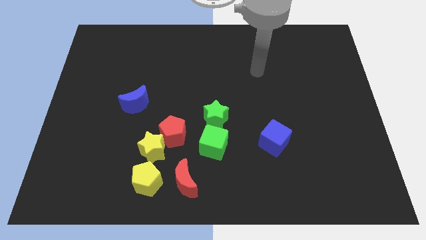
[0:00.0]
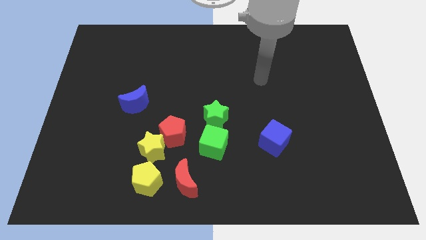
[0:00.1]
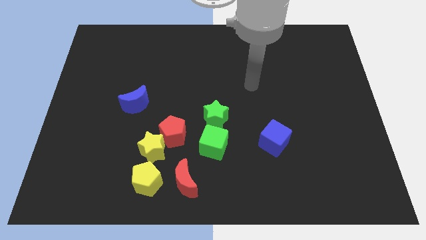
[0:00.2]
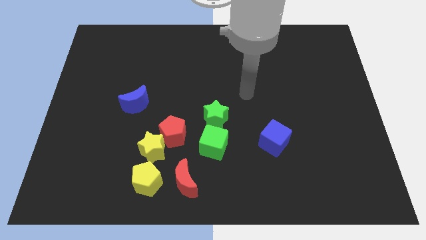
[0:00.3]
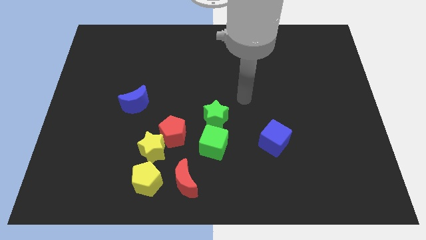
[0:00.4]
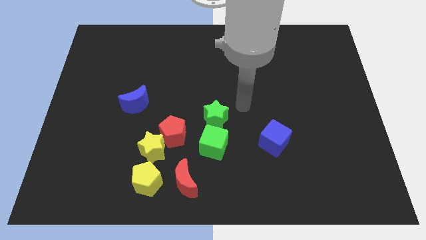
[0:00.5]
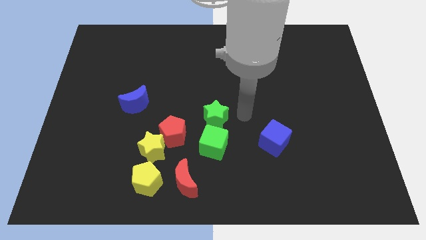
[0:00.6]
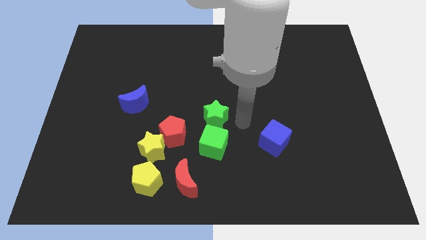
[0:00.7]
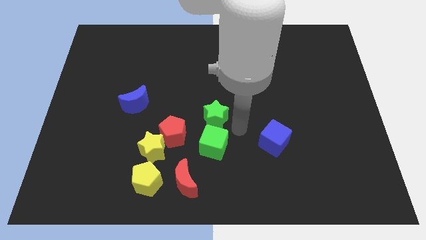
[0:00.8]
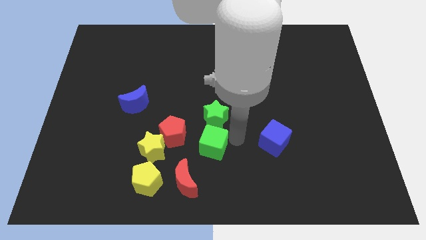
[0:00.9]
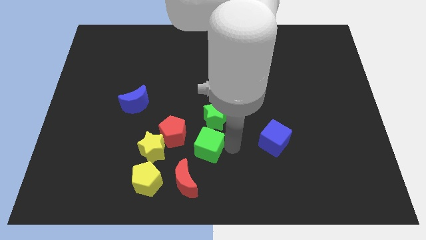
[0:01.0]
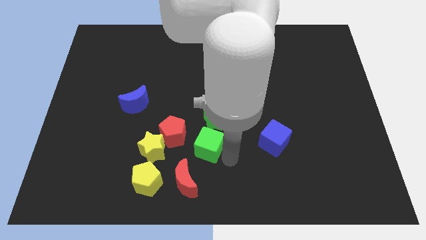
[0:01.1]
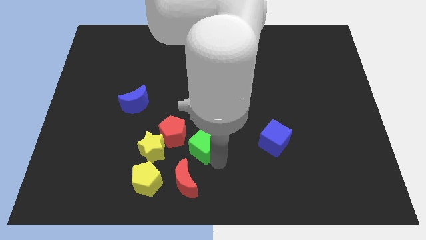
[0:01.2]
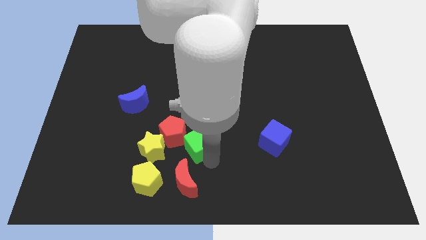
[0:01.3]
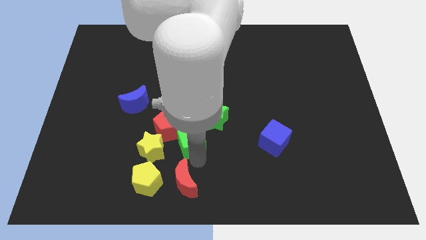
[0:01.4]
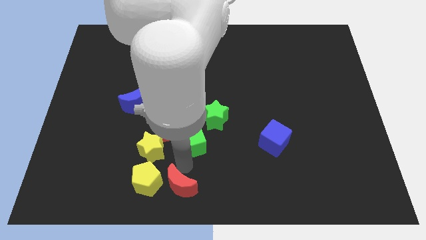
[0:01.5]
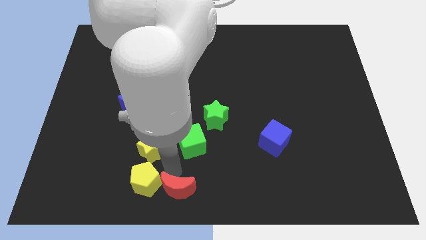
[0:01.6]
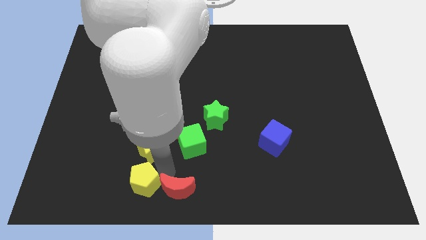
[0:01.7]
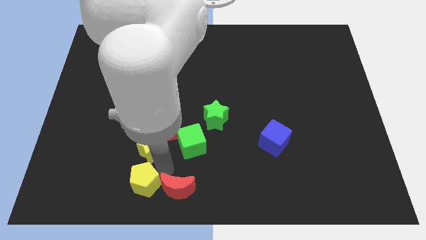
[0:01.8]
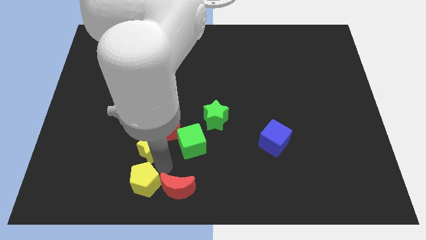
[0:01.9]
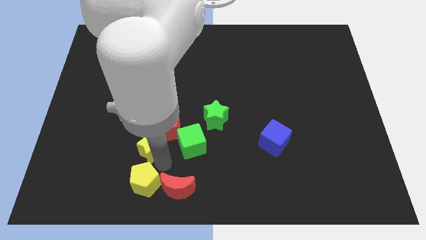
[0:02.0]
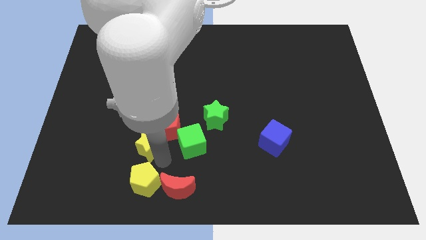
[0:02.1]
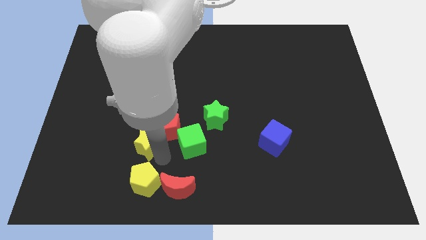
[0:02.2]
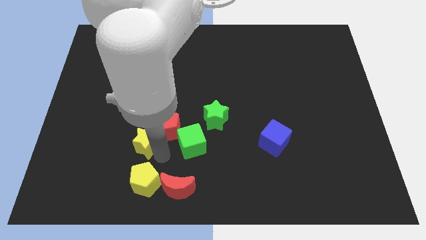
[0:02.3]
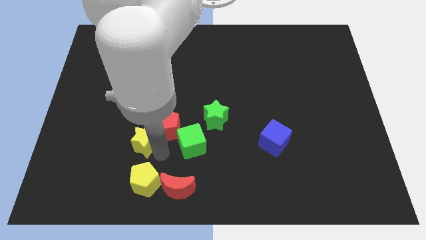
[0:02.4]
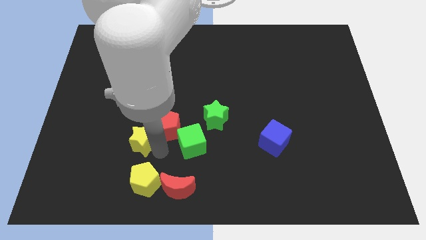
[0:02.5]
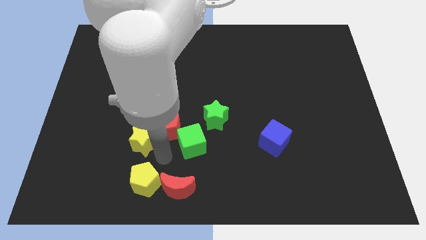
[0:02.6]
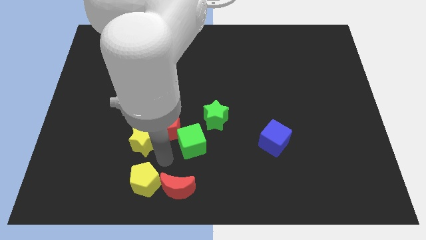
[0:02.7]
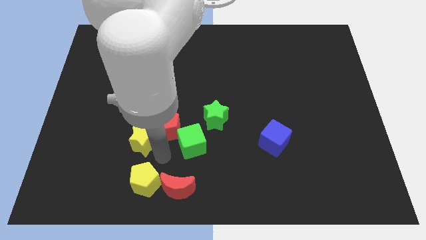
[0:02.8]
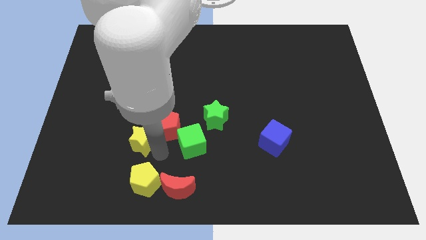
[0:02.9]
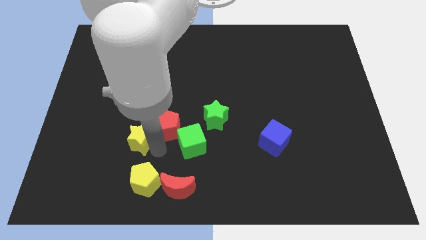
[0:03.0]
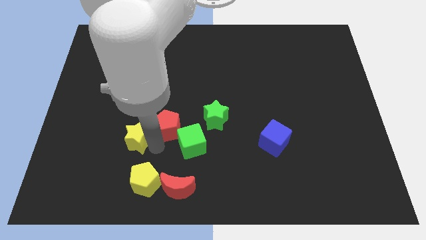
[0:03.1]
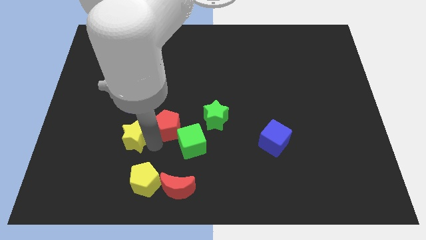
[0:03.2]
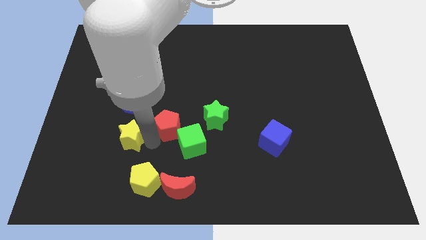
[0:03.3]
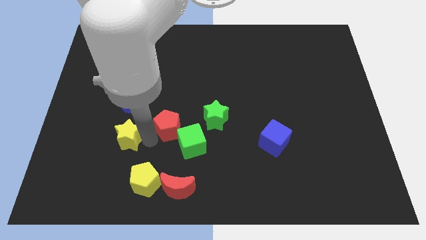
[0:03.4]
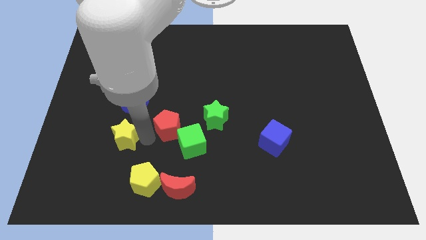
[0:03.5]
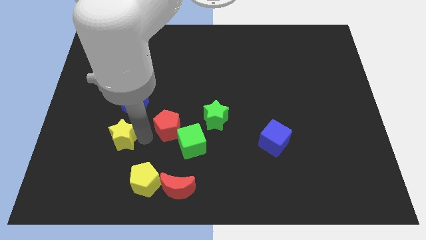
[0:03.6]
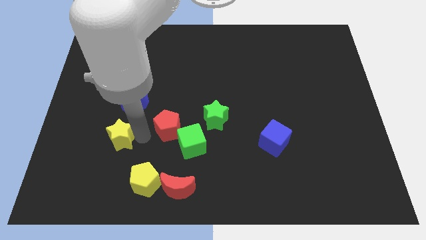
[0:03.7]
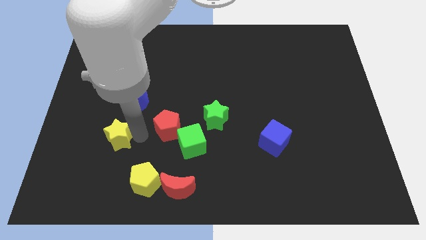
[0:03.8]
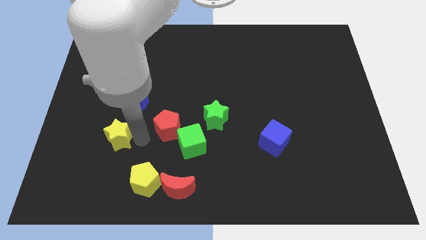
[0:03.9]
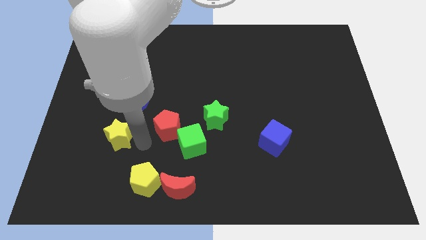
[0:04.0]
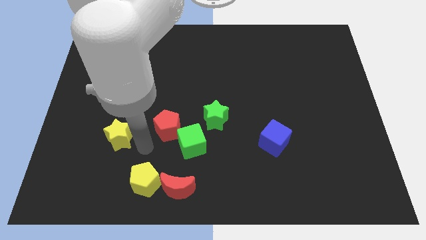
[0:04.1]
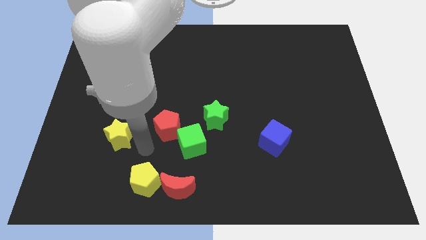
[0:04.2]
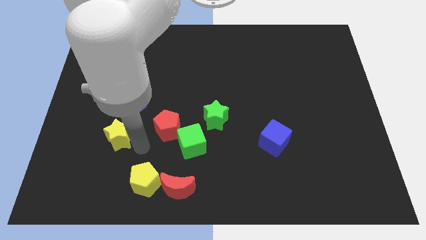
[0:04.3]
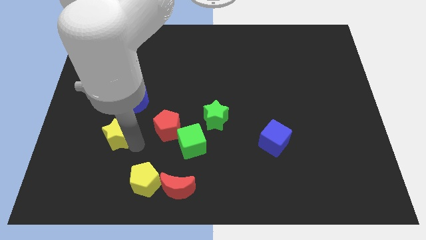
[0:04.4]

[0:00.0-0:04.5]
separate the yellow star from the red pentagon and yellow pentagon

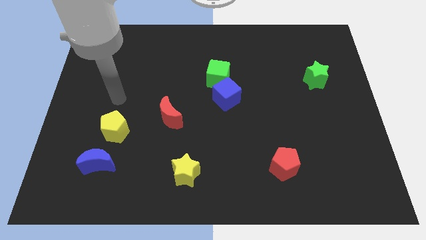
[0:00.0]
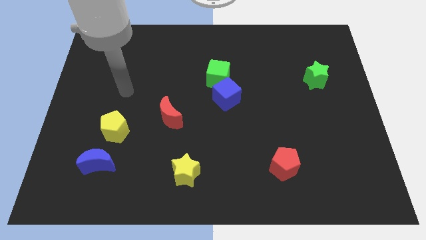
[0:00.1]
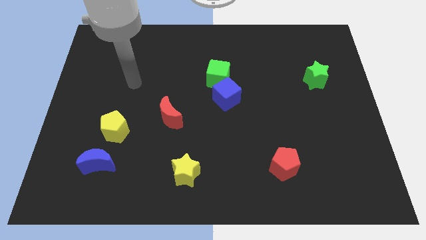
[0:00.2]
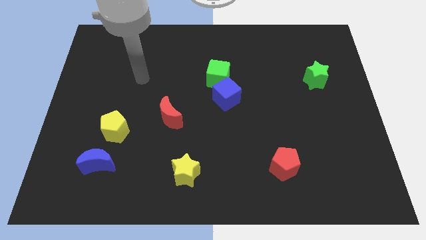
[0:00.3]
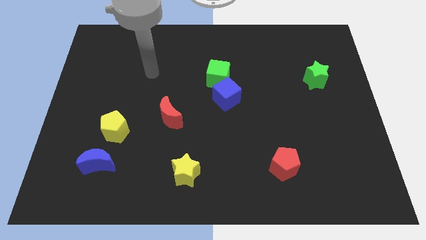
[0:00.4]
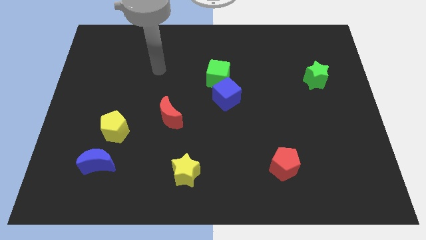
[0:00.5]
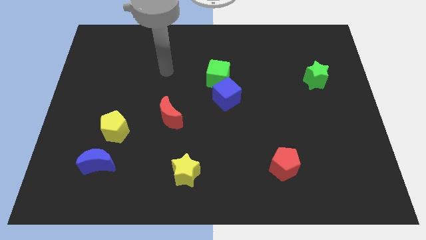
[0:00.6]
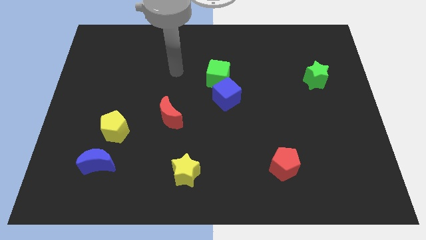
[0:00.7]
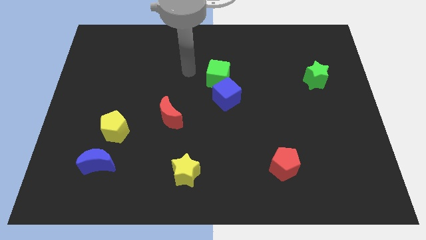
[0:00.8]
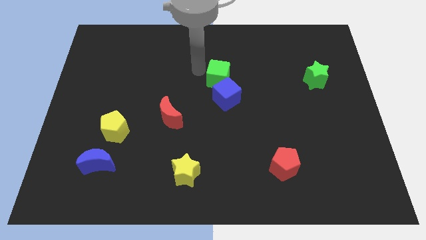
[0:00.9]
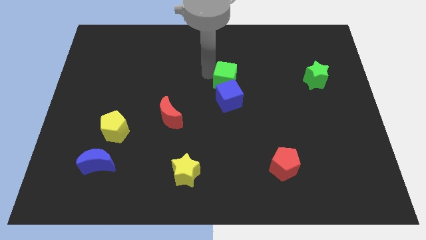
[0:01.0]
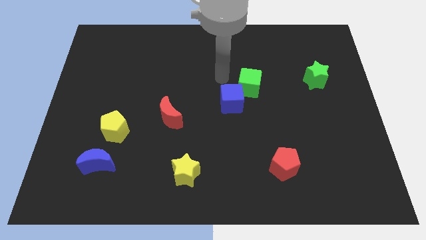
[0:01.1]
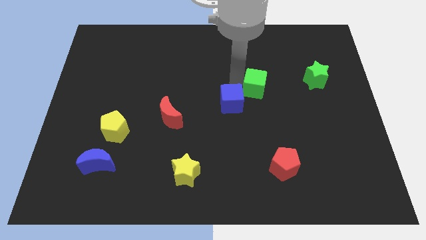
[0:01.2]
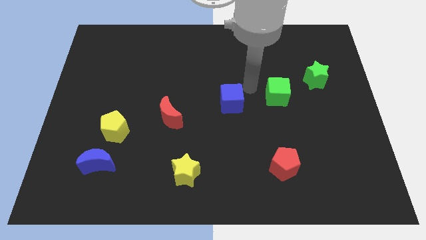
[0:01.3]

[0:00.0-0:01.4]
separate the blue cube from the green cube

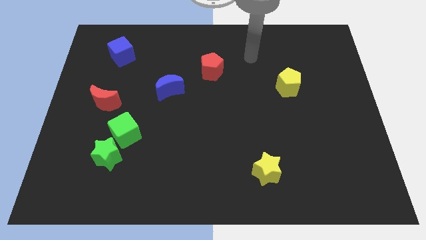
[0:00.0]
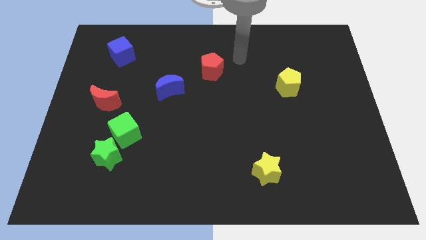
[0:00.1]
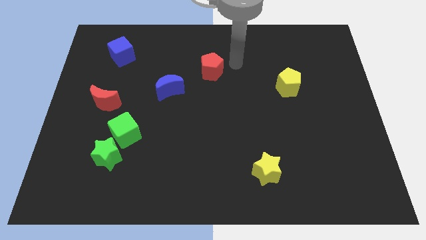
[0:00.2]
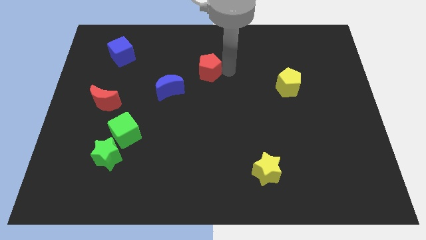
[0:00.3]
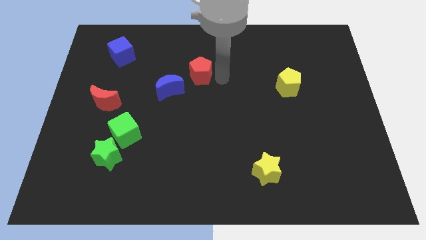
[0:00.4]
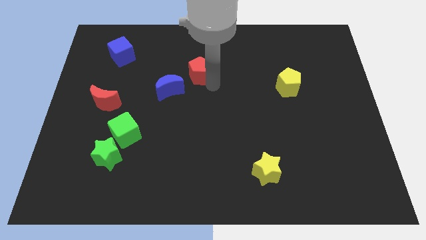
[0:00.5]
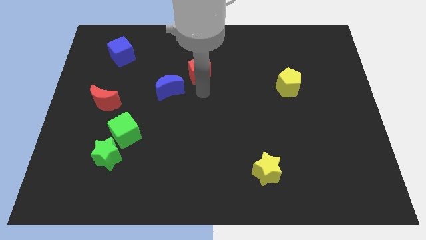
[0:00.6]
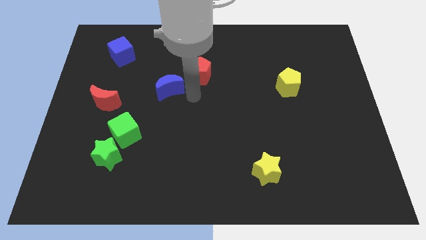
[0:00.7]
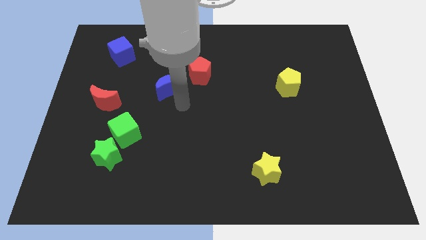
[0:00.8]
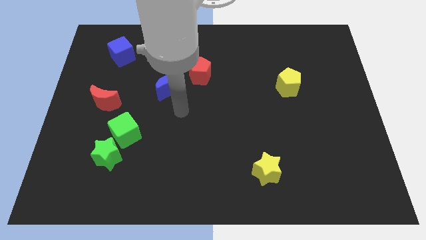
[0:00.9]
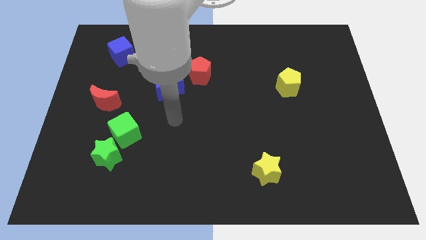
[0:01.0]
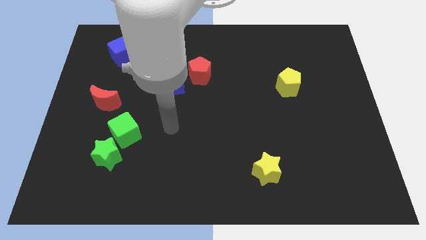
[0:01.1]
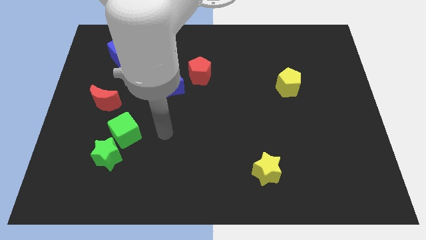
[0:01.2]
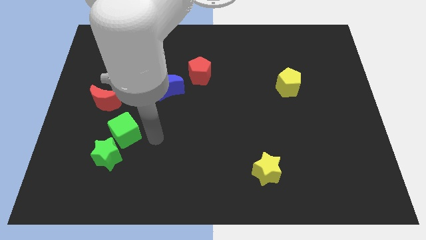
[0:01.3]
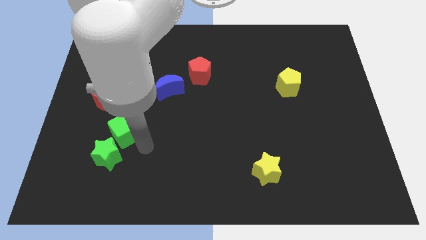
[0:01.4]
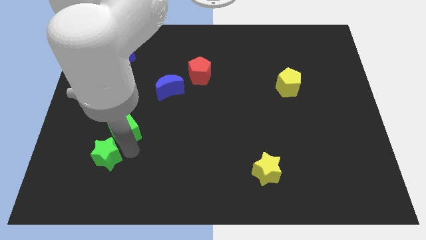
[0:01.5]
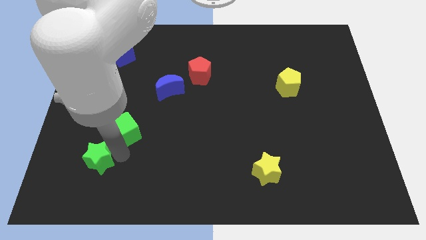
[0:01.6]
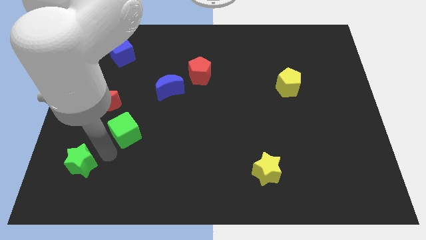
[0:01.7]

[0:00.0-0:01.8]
pull the green cube apart from the green star

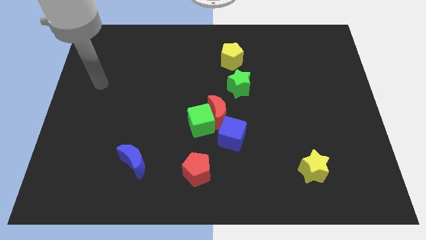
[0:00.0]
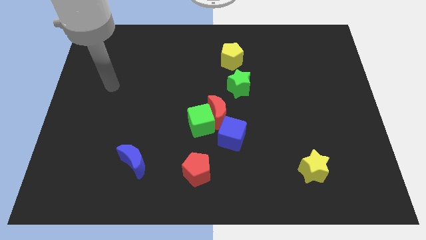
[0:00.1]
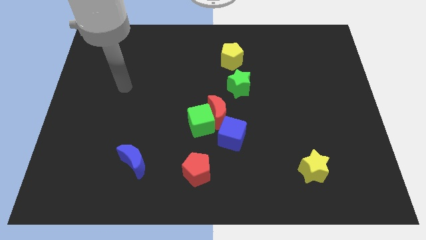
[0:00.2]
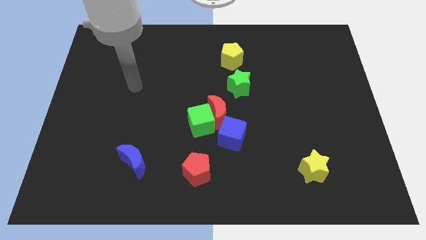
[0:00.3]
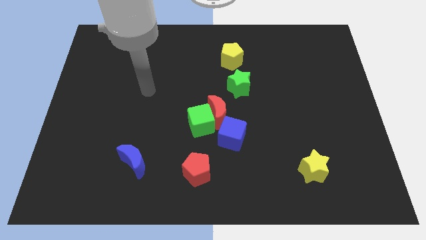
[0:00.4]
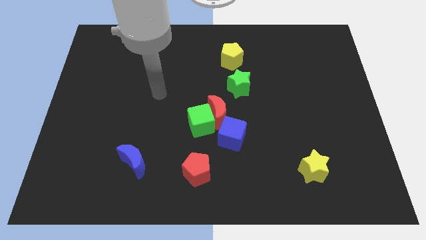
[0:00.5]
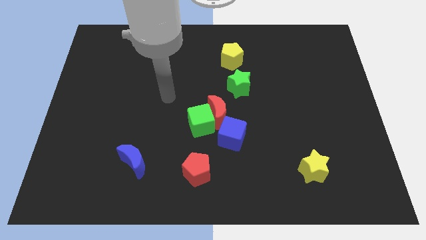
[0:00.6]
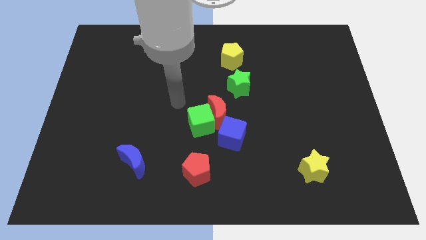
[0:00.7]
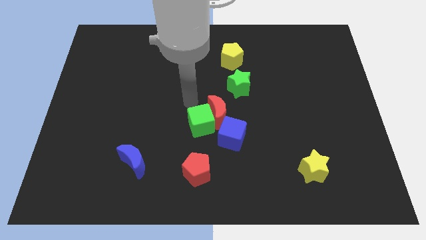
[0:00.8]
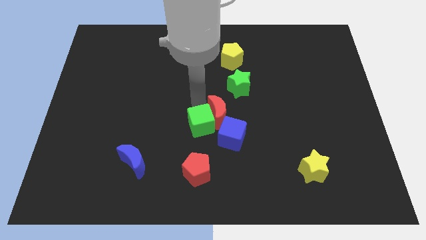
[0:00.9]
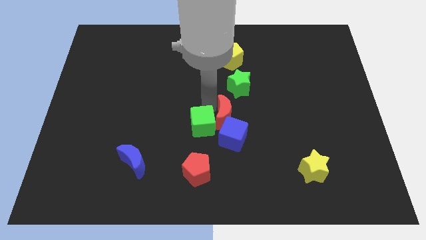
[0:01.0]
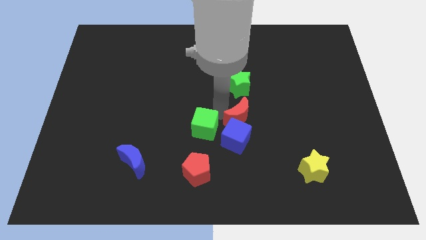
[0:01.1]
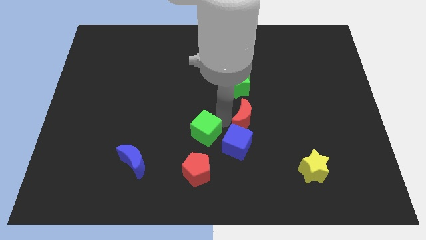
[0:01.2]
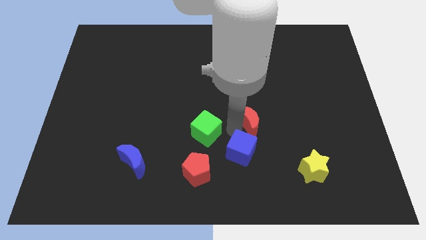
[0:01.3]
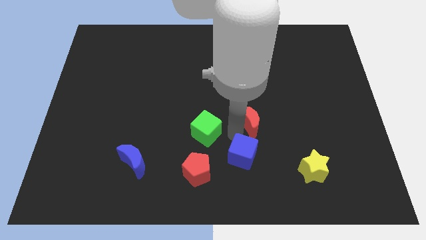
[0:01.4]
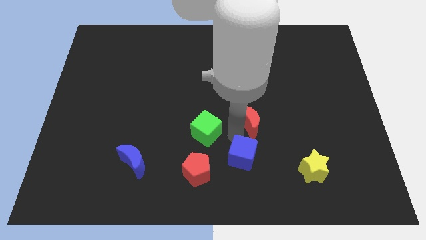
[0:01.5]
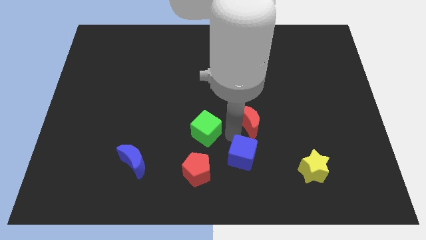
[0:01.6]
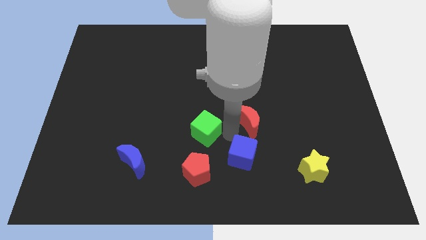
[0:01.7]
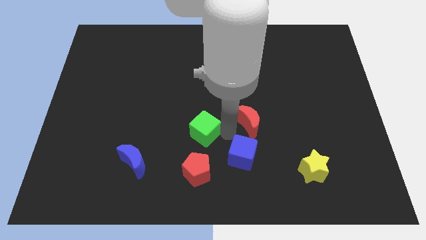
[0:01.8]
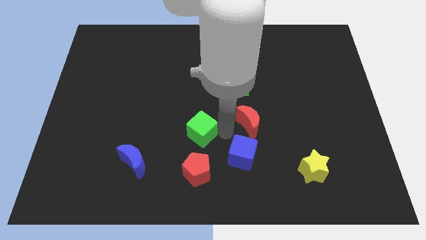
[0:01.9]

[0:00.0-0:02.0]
pull the green cube apart from the red moon and blue cube
